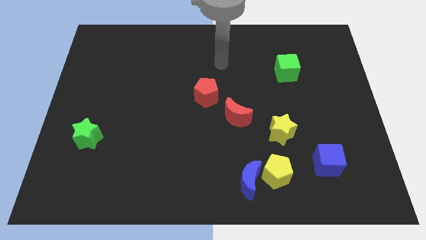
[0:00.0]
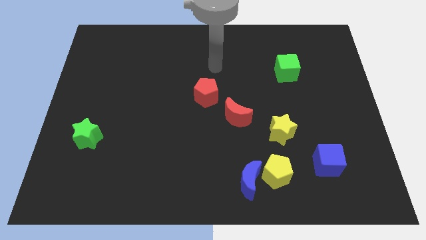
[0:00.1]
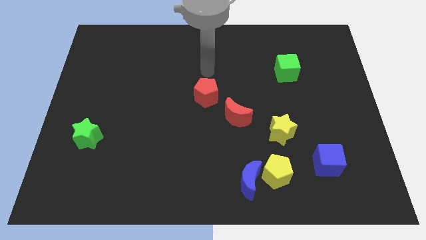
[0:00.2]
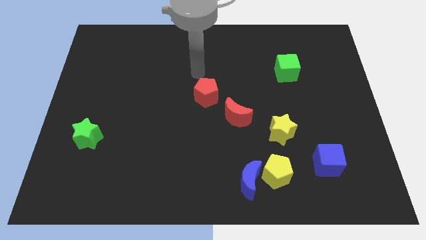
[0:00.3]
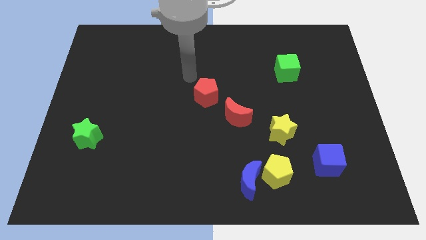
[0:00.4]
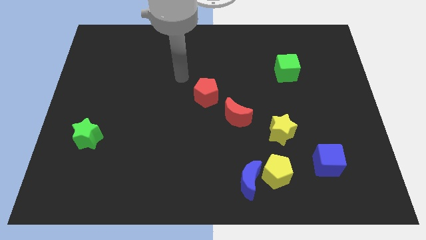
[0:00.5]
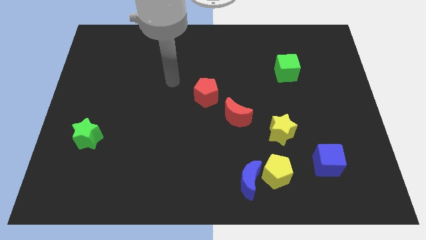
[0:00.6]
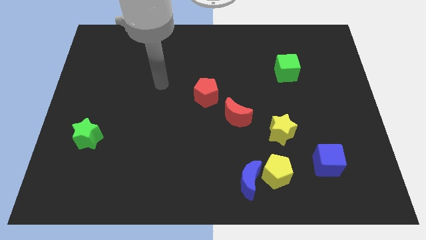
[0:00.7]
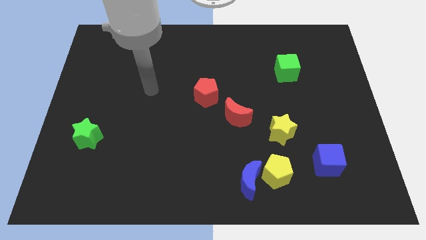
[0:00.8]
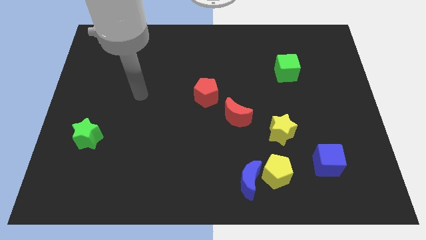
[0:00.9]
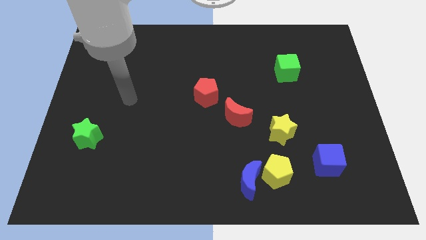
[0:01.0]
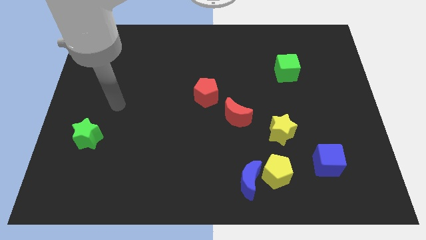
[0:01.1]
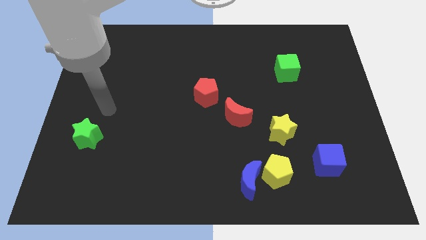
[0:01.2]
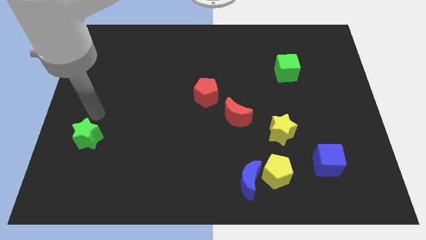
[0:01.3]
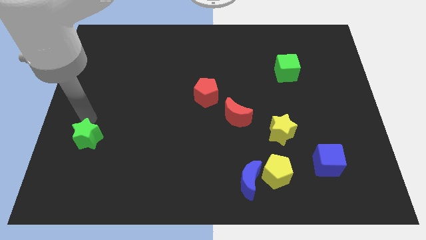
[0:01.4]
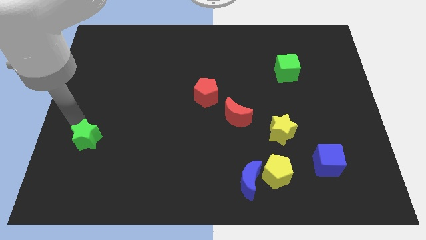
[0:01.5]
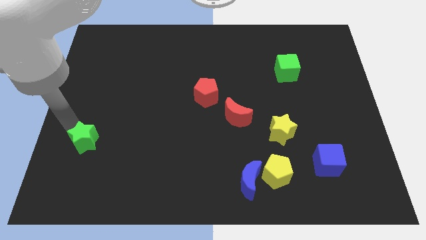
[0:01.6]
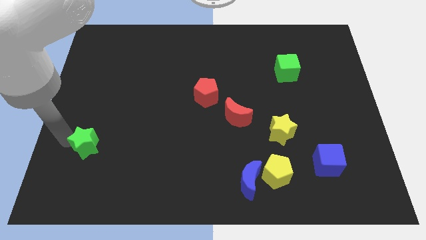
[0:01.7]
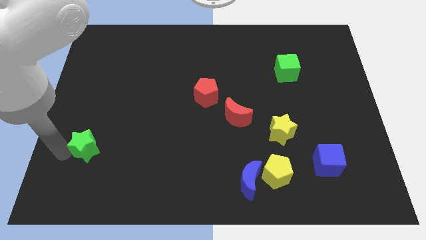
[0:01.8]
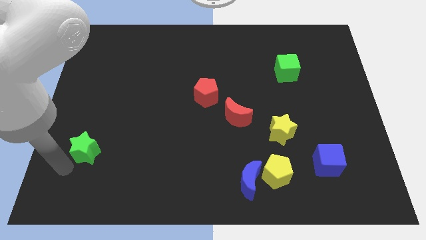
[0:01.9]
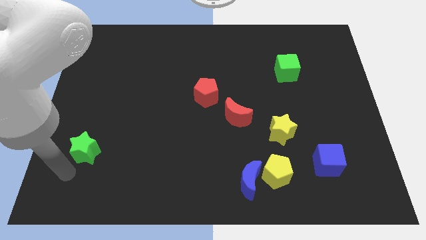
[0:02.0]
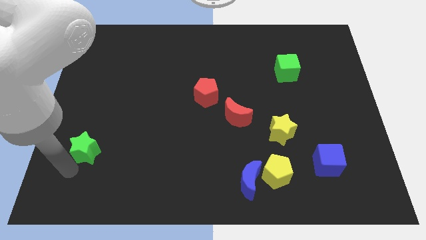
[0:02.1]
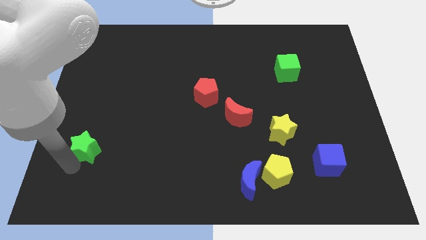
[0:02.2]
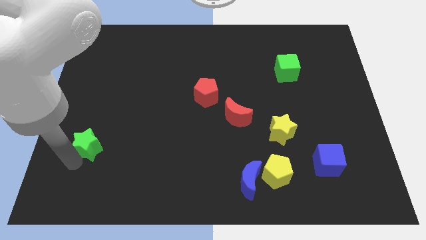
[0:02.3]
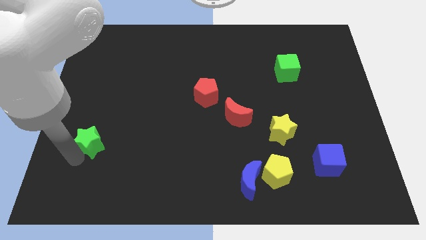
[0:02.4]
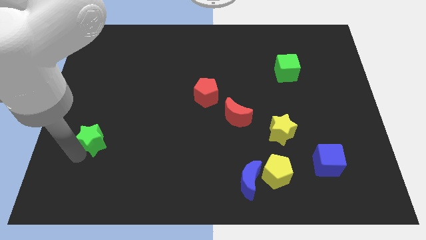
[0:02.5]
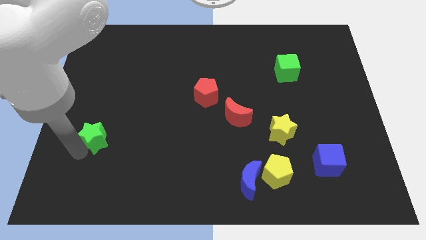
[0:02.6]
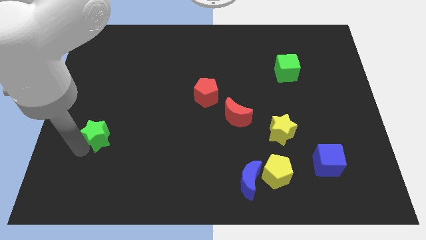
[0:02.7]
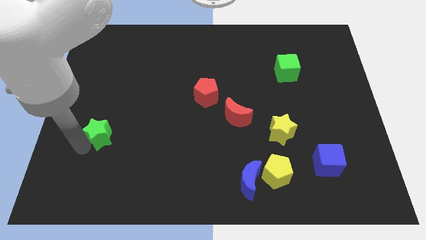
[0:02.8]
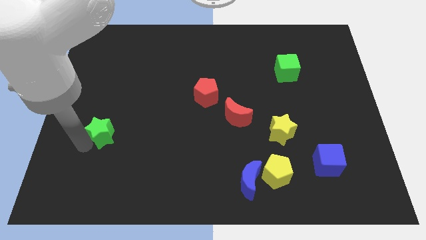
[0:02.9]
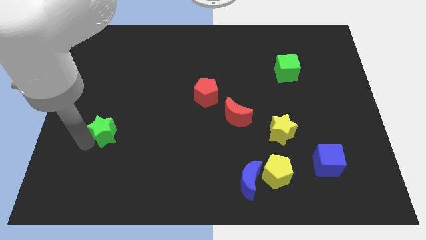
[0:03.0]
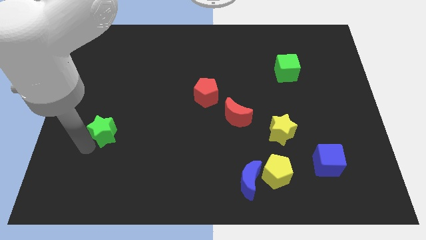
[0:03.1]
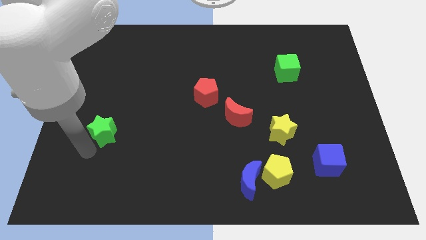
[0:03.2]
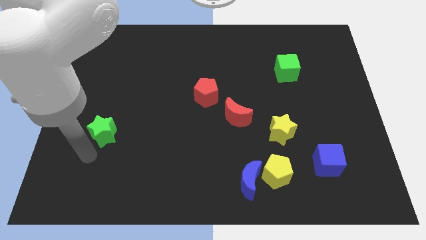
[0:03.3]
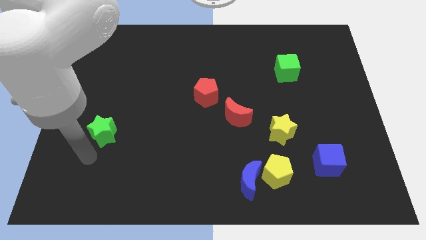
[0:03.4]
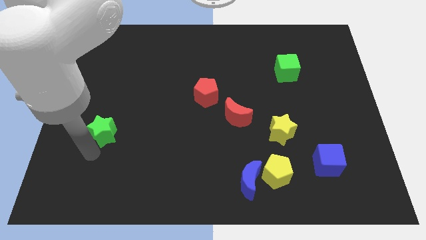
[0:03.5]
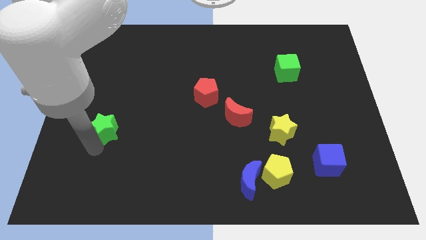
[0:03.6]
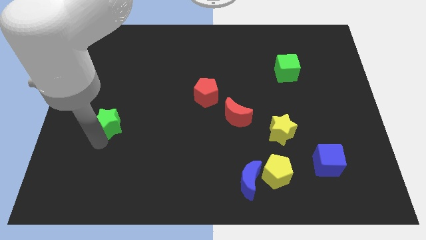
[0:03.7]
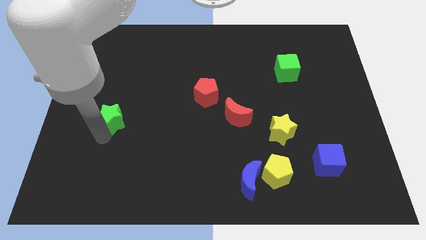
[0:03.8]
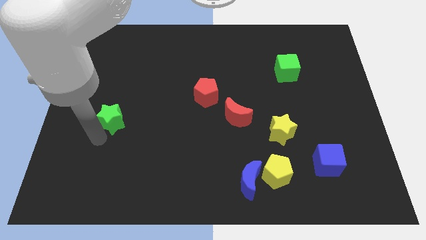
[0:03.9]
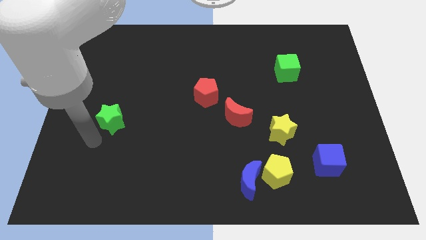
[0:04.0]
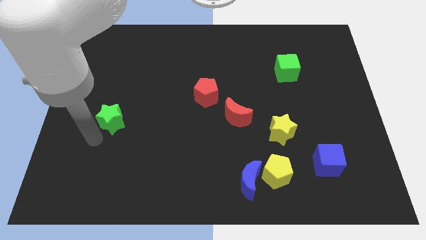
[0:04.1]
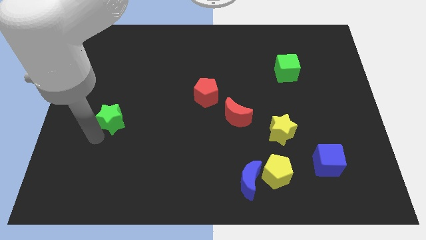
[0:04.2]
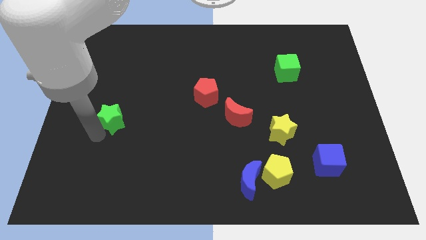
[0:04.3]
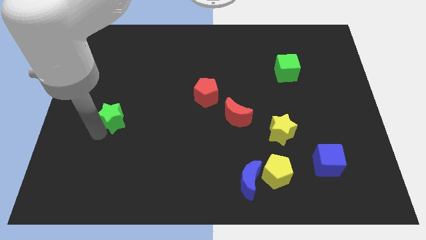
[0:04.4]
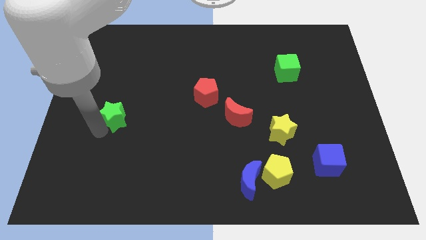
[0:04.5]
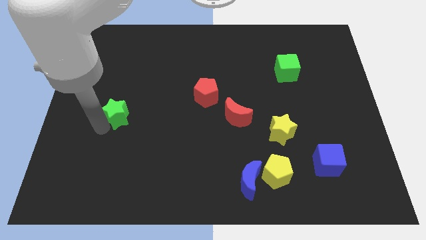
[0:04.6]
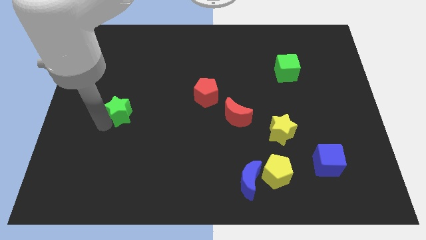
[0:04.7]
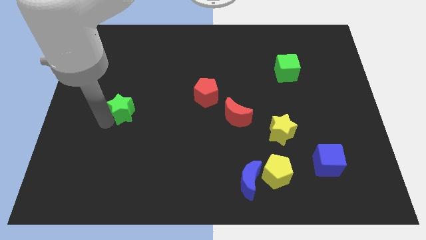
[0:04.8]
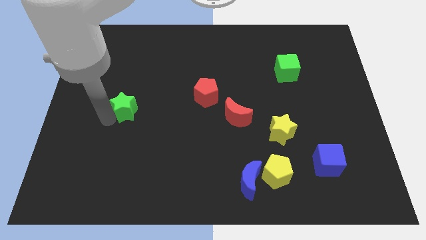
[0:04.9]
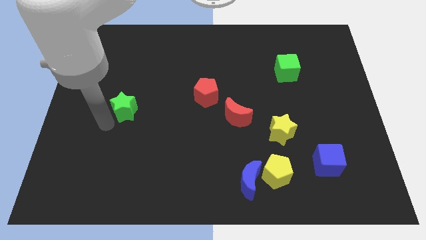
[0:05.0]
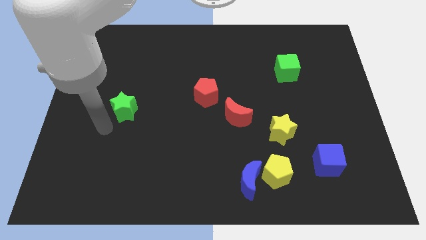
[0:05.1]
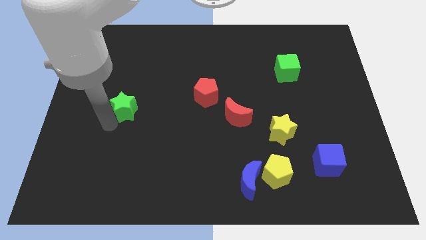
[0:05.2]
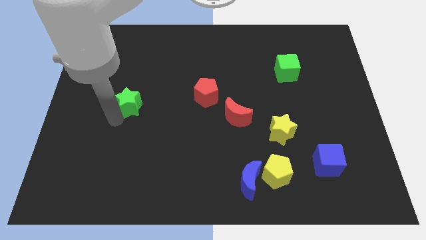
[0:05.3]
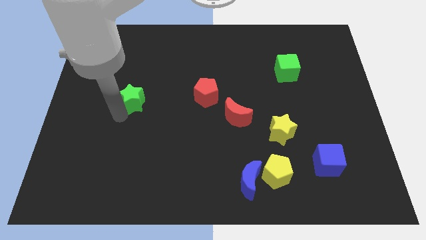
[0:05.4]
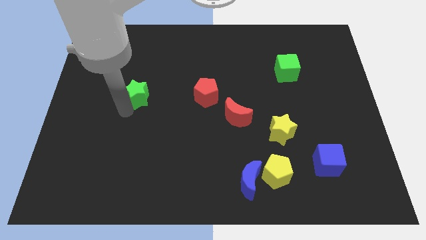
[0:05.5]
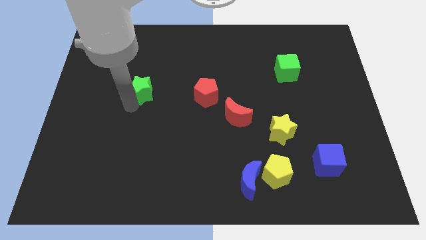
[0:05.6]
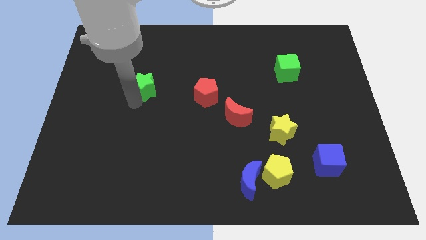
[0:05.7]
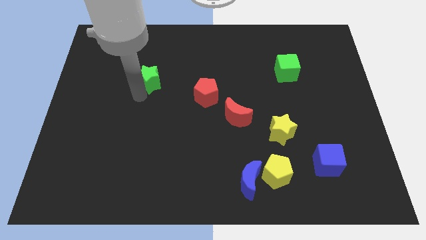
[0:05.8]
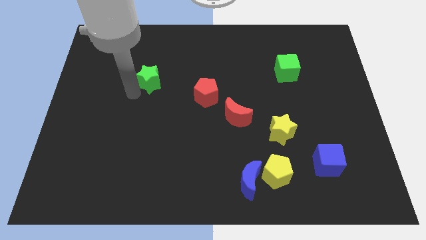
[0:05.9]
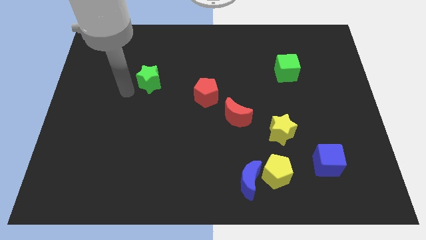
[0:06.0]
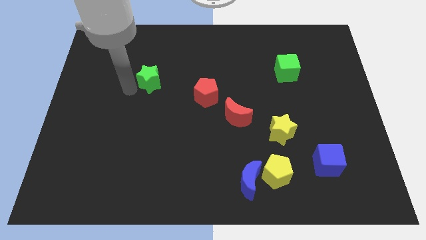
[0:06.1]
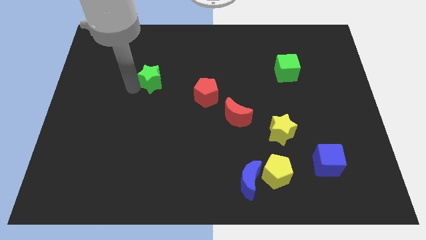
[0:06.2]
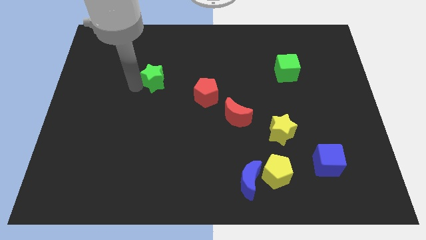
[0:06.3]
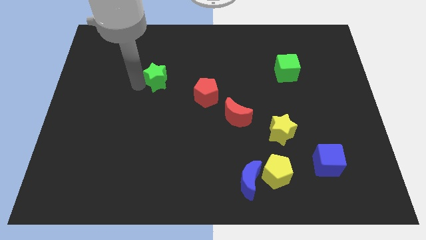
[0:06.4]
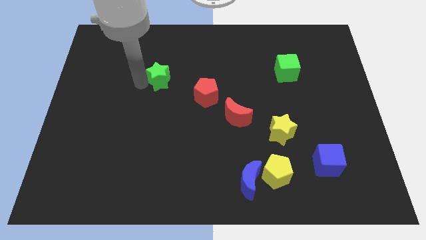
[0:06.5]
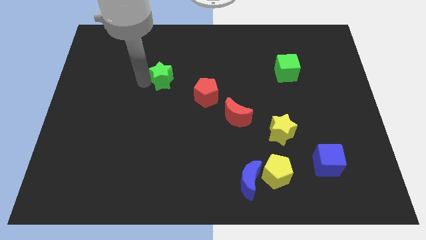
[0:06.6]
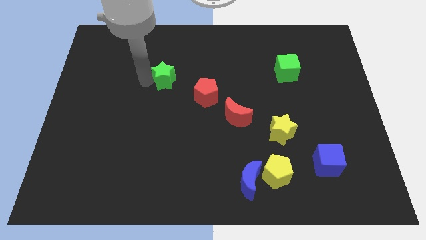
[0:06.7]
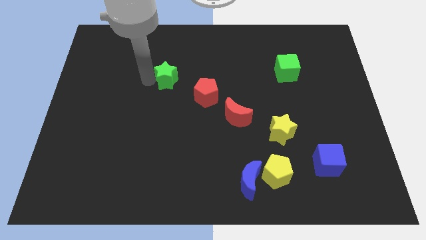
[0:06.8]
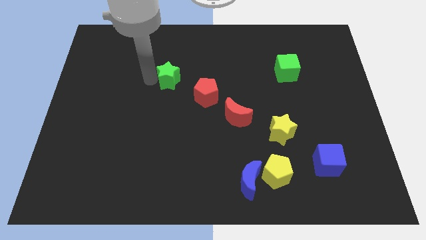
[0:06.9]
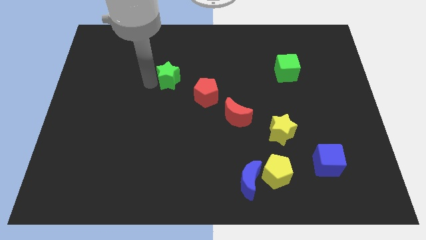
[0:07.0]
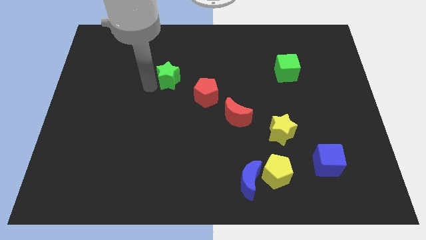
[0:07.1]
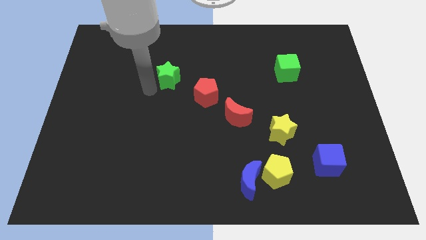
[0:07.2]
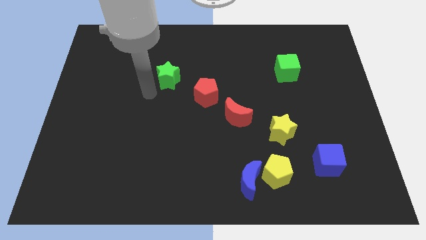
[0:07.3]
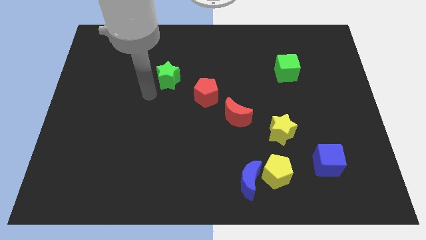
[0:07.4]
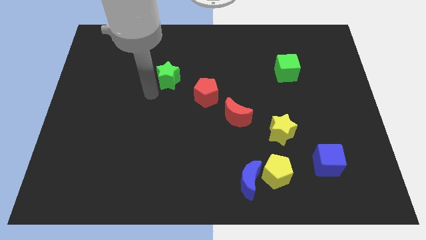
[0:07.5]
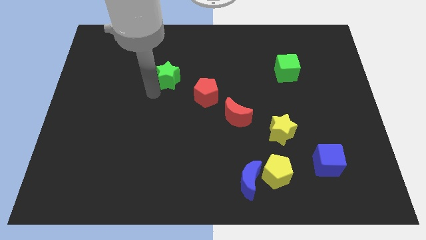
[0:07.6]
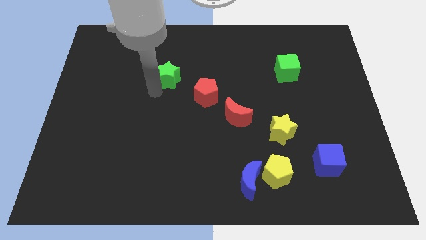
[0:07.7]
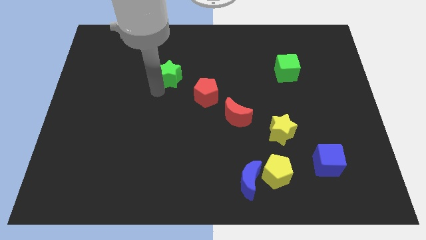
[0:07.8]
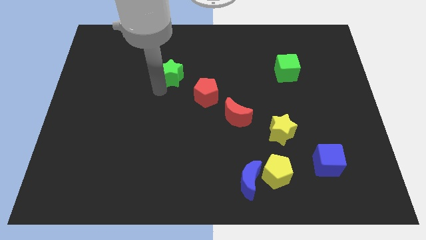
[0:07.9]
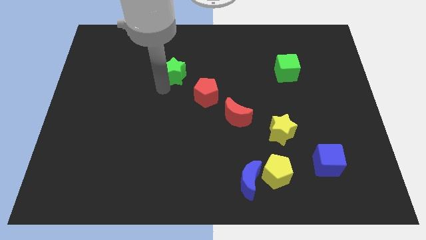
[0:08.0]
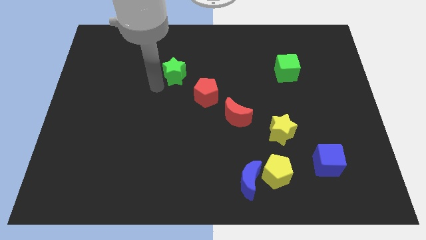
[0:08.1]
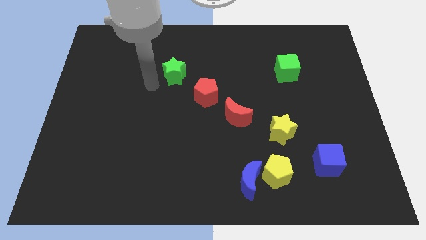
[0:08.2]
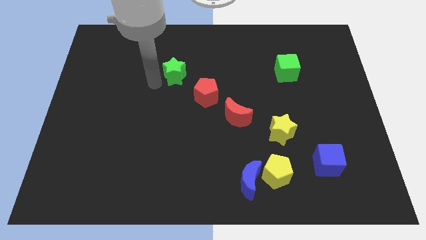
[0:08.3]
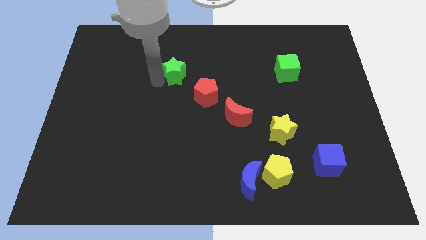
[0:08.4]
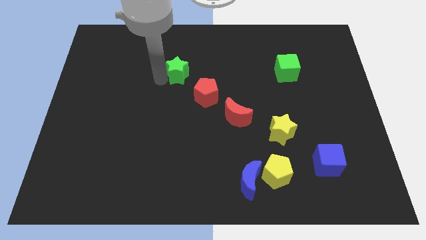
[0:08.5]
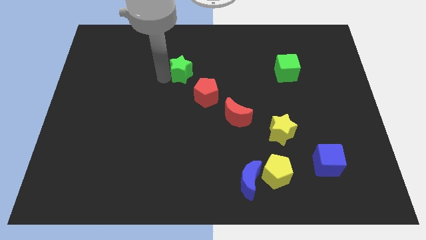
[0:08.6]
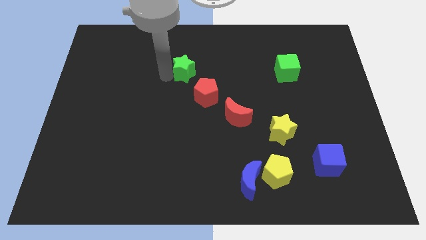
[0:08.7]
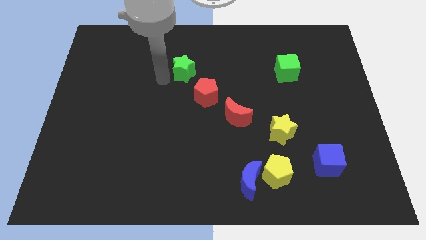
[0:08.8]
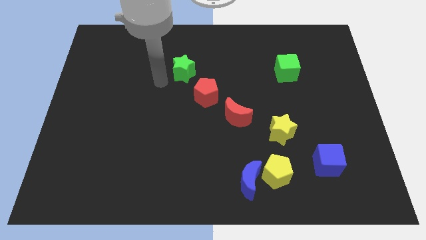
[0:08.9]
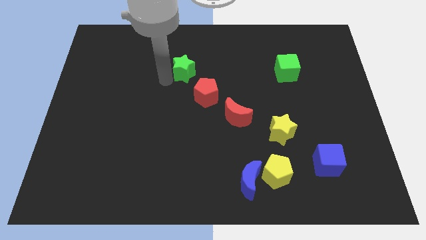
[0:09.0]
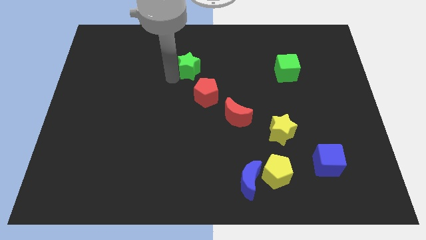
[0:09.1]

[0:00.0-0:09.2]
push the green star to the top side of the red pentagon
